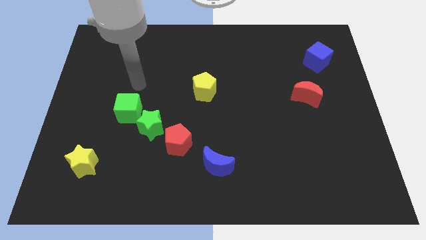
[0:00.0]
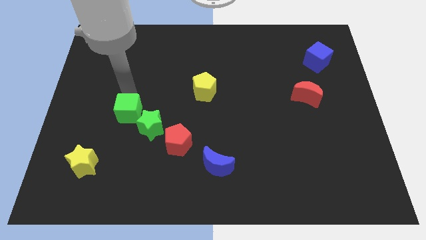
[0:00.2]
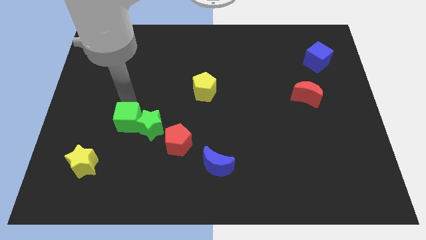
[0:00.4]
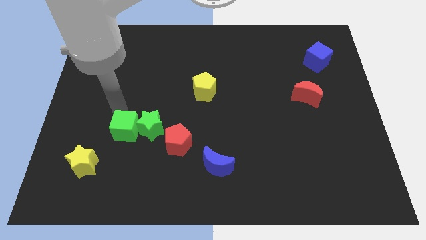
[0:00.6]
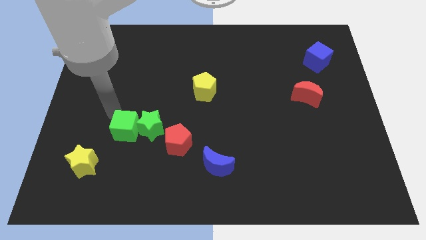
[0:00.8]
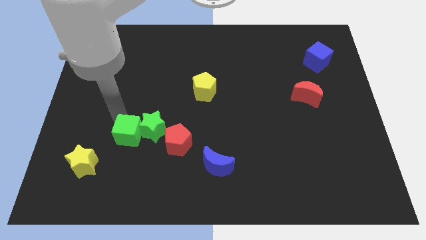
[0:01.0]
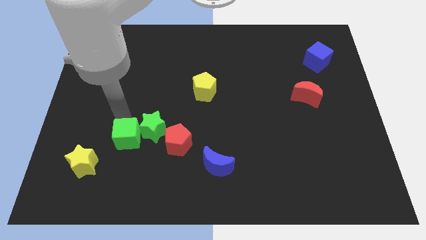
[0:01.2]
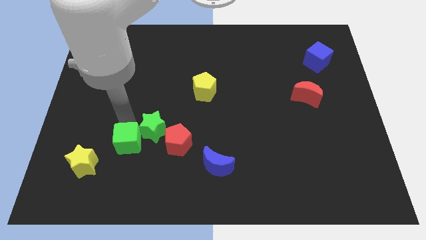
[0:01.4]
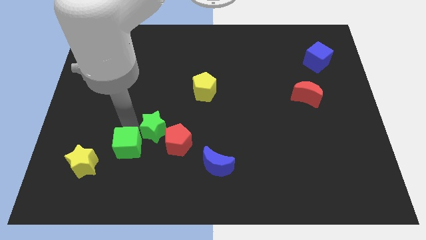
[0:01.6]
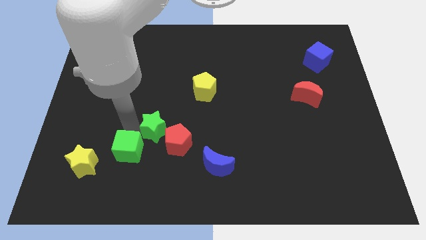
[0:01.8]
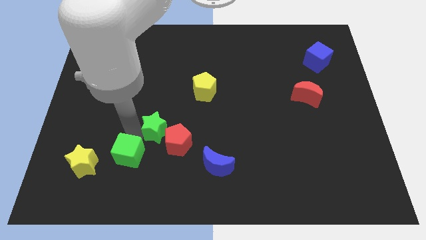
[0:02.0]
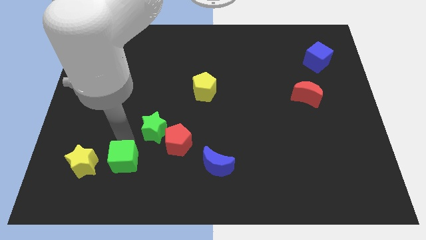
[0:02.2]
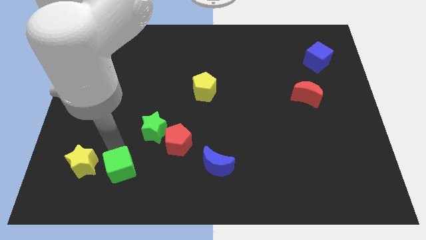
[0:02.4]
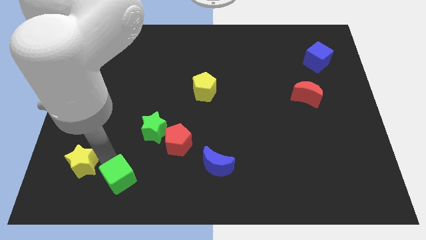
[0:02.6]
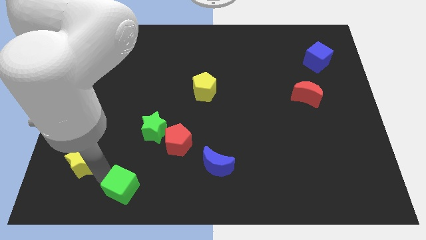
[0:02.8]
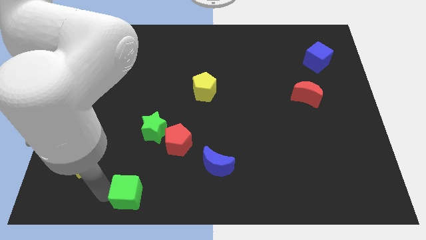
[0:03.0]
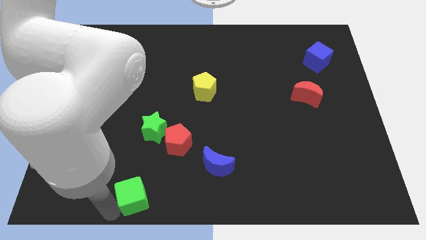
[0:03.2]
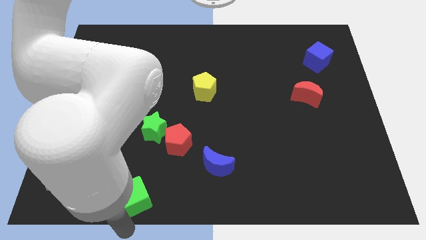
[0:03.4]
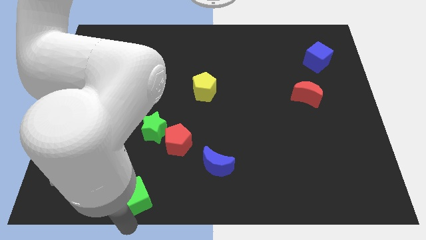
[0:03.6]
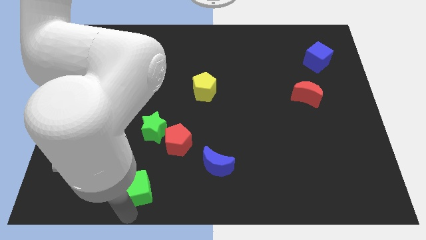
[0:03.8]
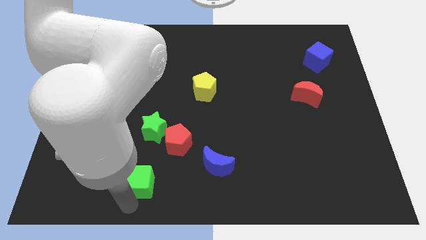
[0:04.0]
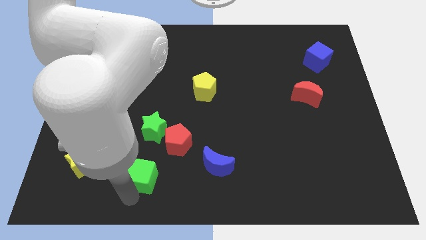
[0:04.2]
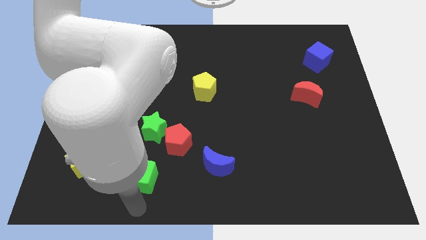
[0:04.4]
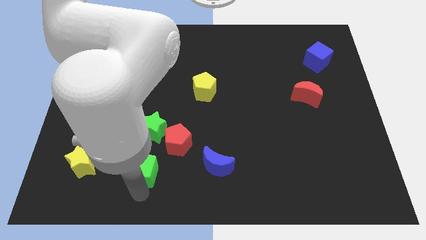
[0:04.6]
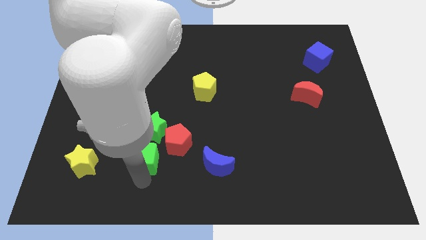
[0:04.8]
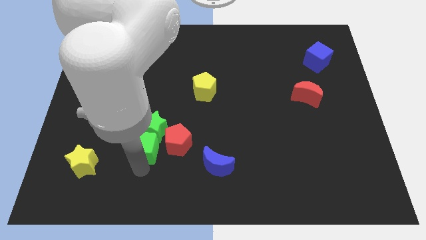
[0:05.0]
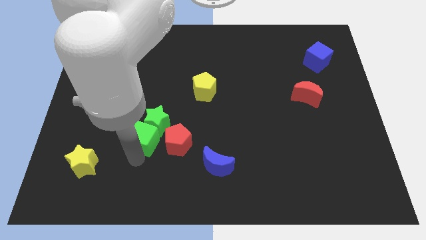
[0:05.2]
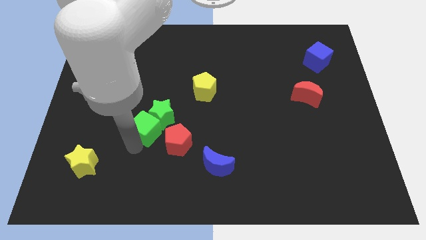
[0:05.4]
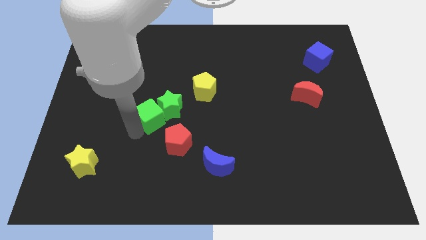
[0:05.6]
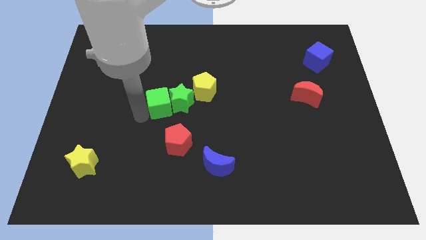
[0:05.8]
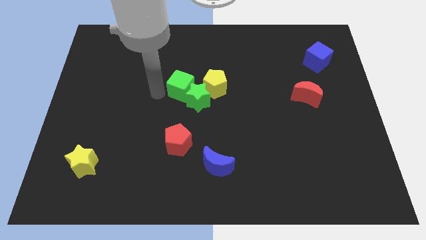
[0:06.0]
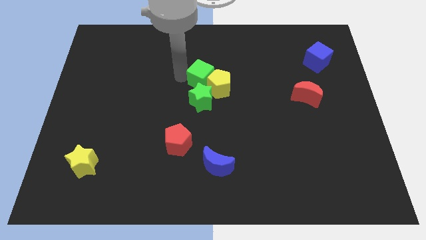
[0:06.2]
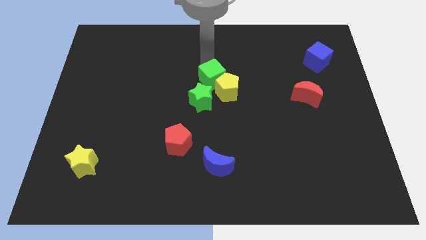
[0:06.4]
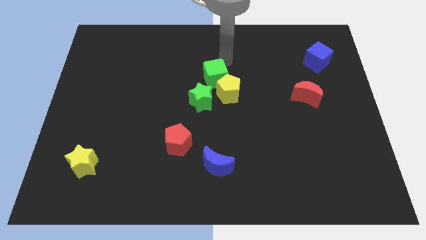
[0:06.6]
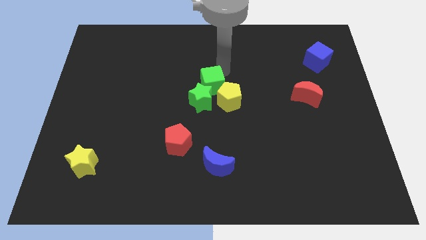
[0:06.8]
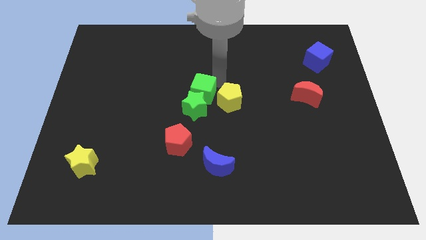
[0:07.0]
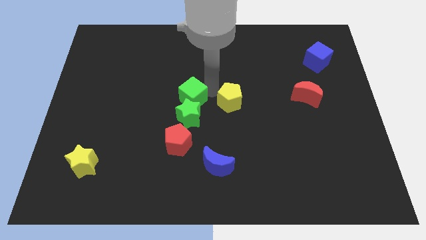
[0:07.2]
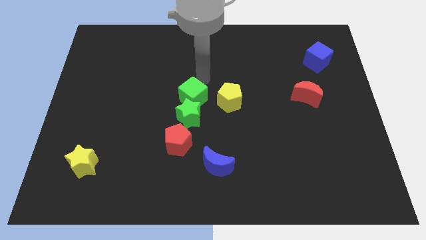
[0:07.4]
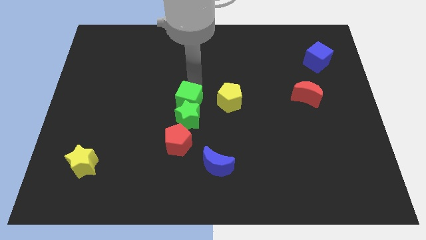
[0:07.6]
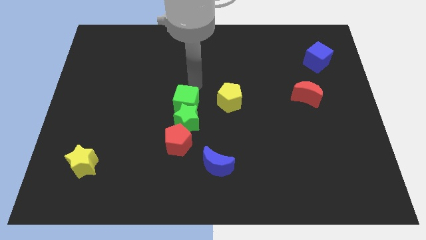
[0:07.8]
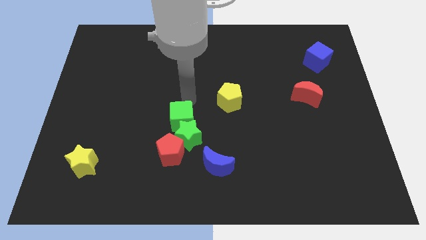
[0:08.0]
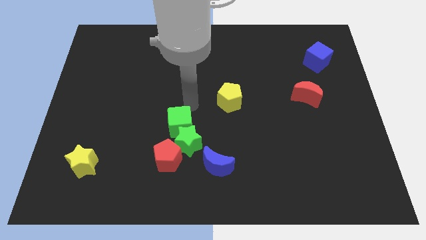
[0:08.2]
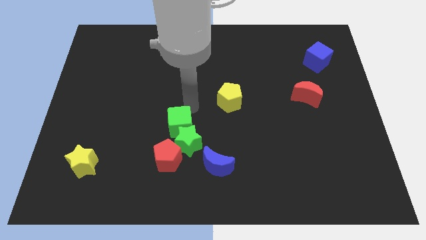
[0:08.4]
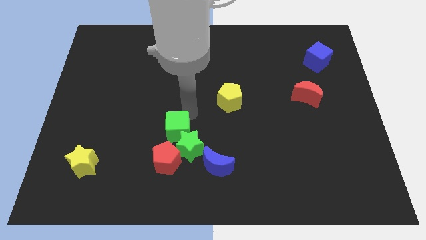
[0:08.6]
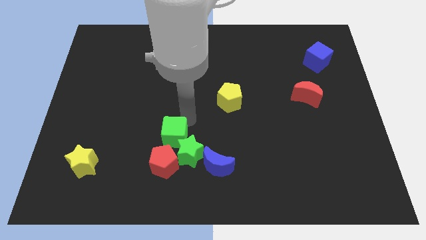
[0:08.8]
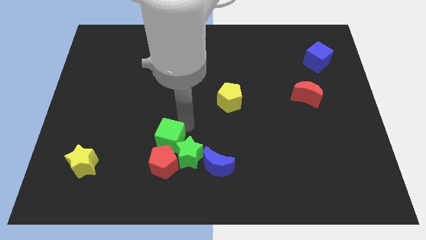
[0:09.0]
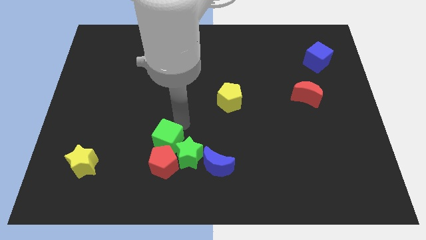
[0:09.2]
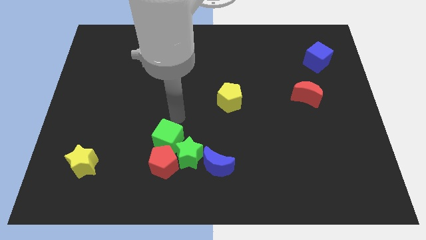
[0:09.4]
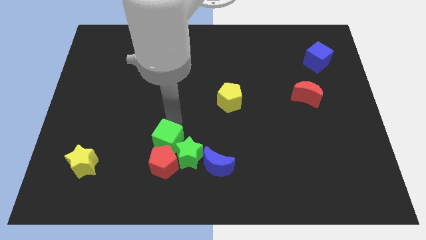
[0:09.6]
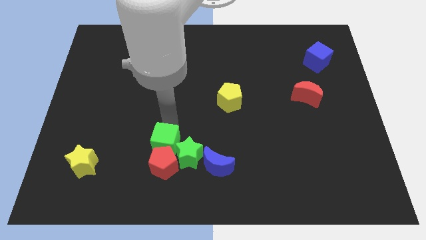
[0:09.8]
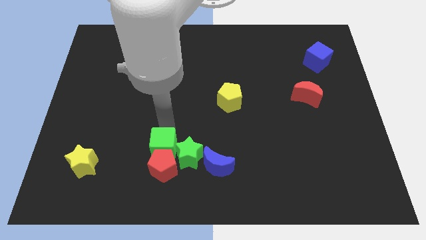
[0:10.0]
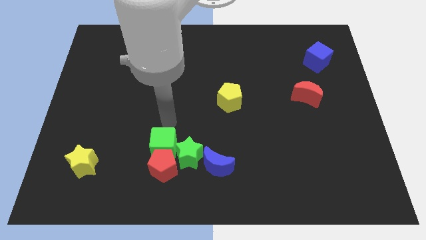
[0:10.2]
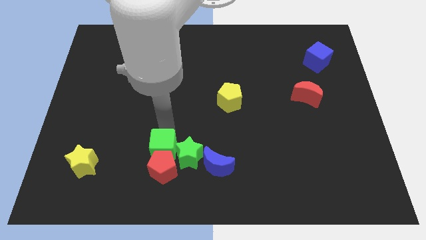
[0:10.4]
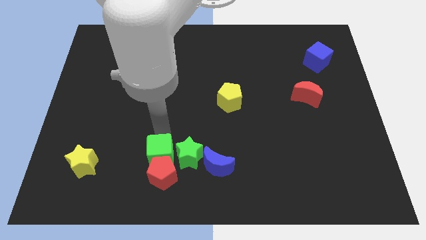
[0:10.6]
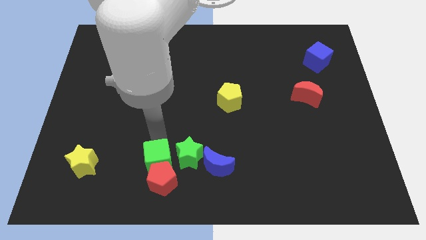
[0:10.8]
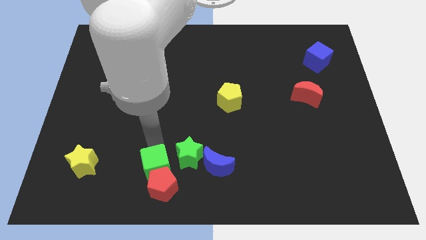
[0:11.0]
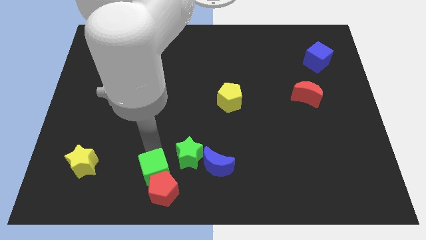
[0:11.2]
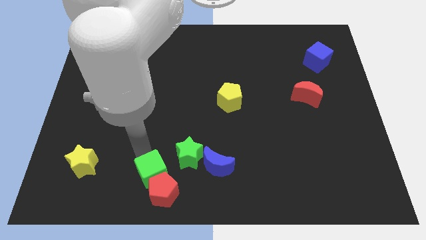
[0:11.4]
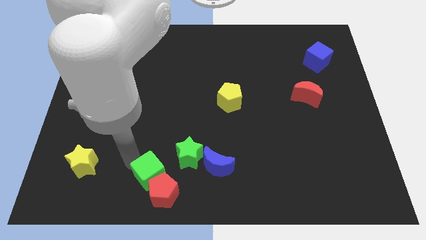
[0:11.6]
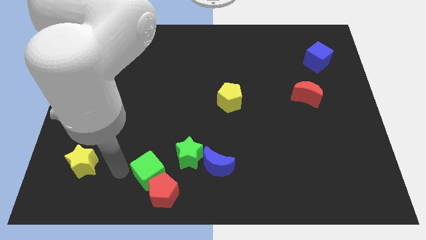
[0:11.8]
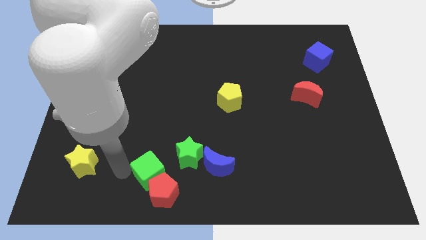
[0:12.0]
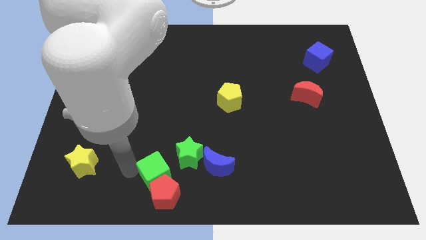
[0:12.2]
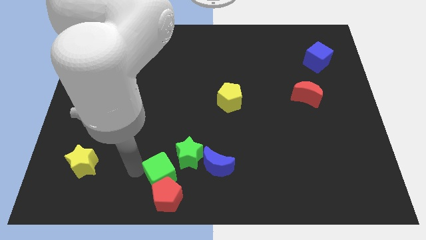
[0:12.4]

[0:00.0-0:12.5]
move the green cube to the bottom side

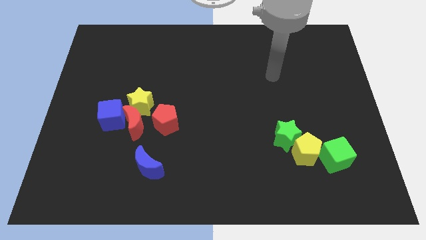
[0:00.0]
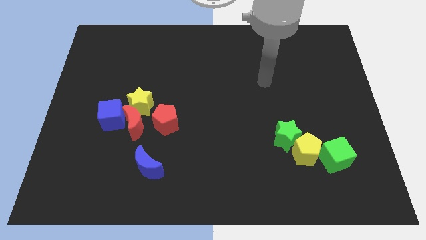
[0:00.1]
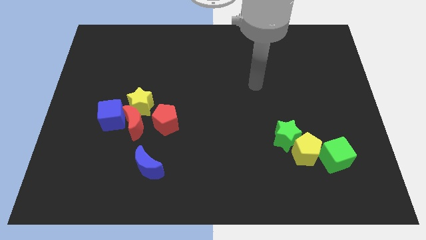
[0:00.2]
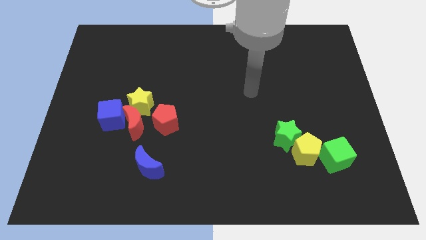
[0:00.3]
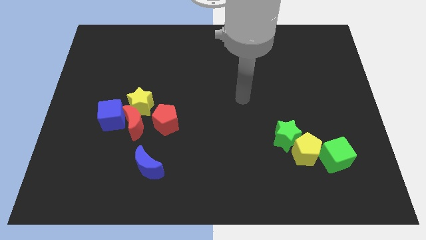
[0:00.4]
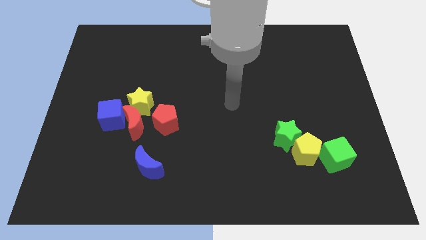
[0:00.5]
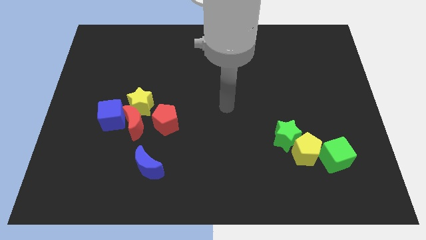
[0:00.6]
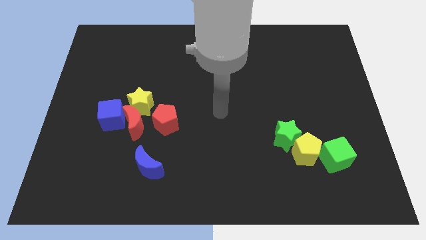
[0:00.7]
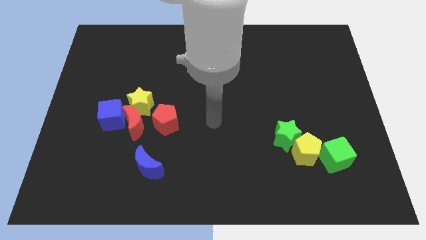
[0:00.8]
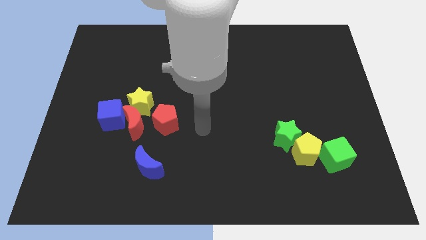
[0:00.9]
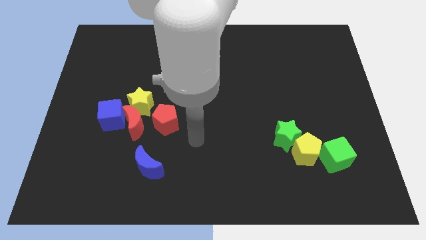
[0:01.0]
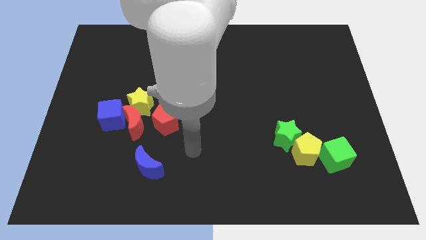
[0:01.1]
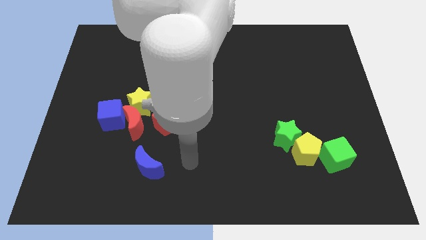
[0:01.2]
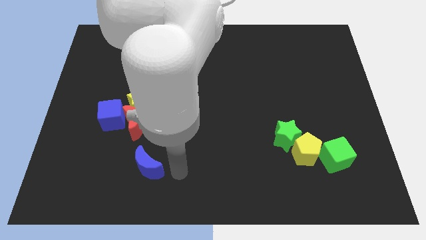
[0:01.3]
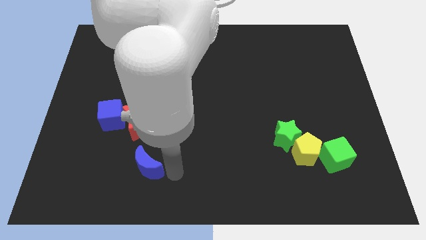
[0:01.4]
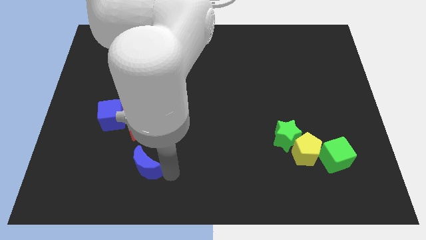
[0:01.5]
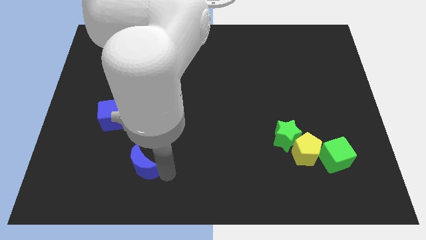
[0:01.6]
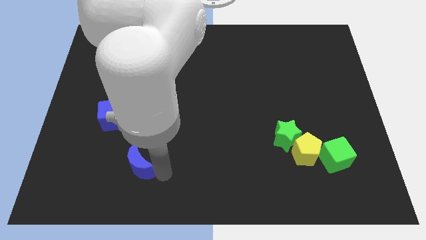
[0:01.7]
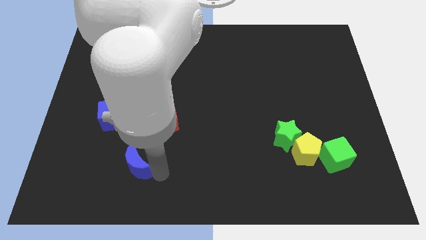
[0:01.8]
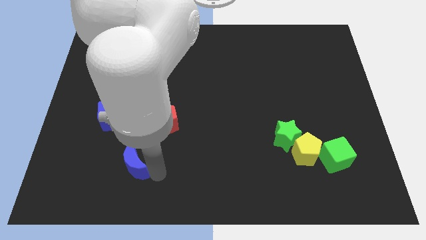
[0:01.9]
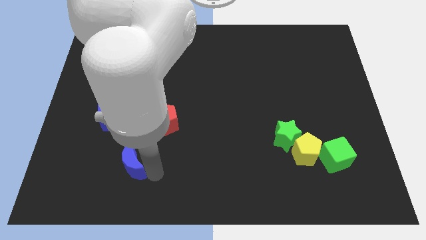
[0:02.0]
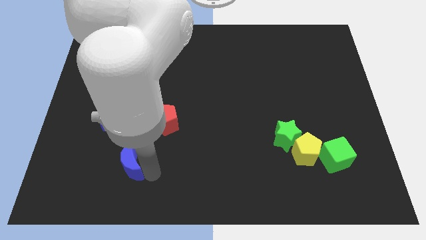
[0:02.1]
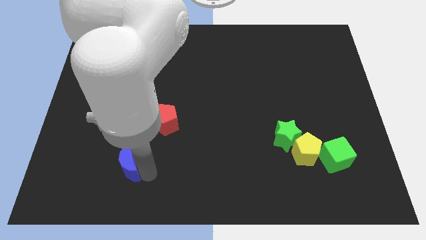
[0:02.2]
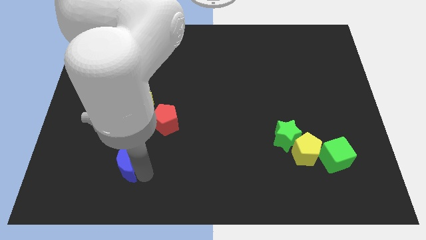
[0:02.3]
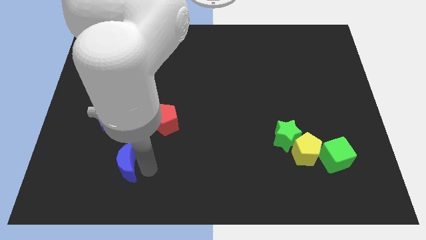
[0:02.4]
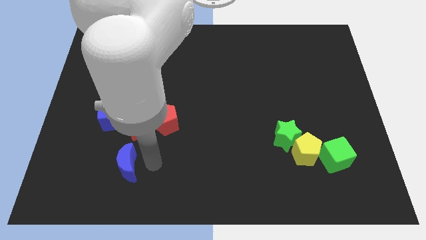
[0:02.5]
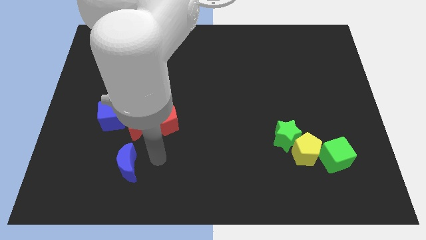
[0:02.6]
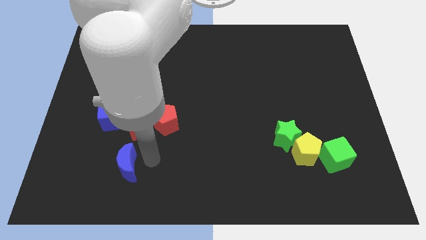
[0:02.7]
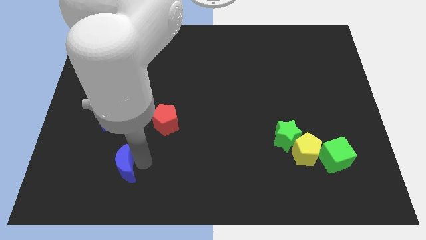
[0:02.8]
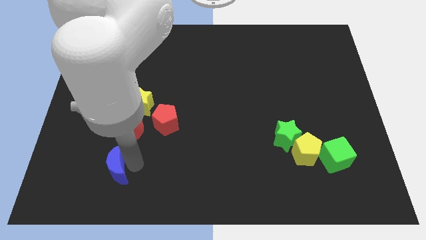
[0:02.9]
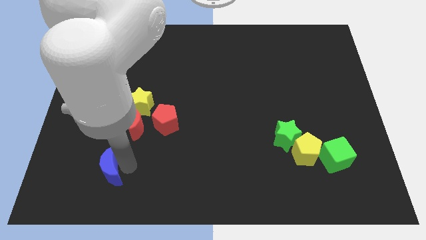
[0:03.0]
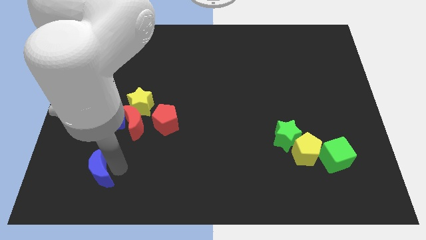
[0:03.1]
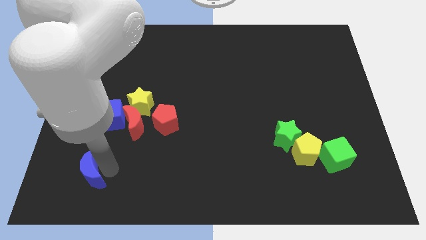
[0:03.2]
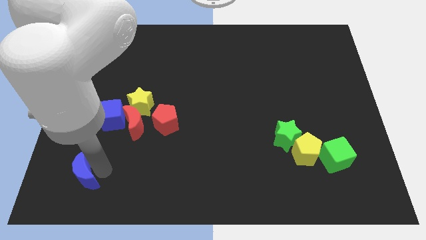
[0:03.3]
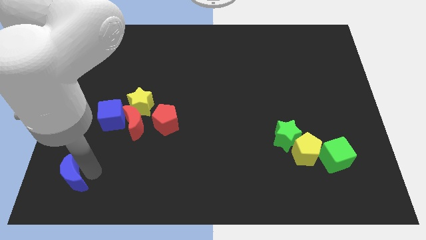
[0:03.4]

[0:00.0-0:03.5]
slide the blue moon to the bottom left corner
